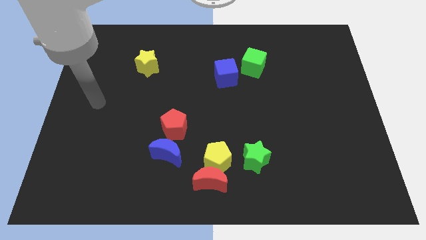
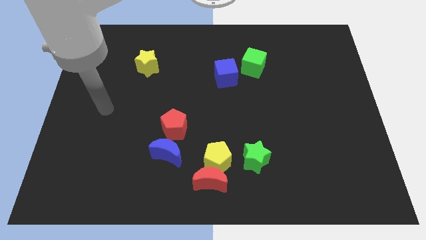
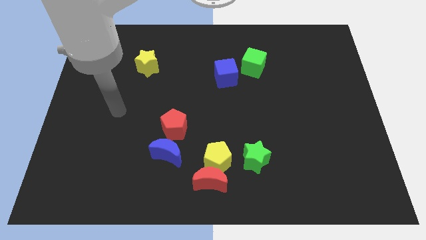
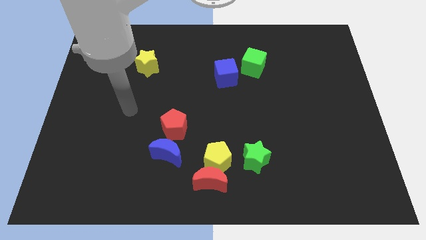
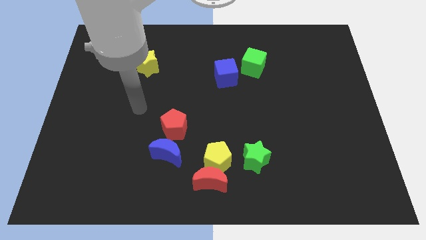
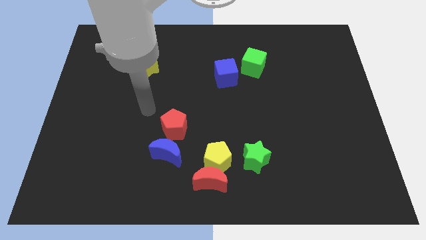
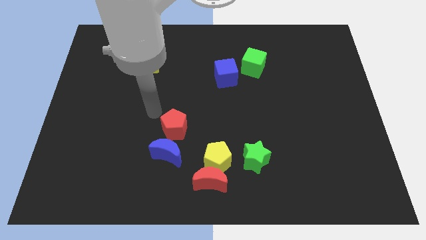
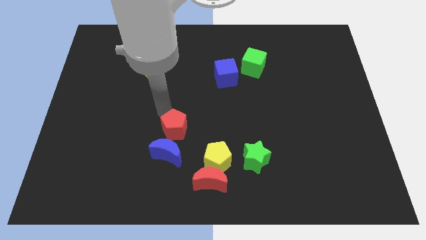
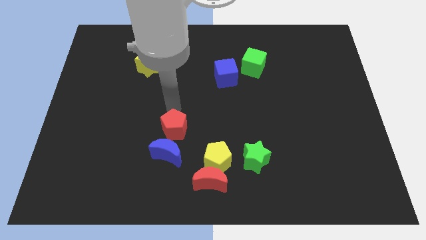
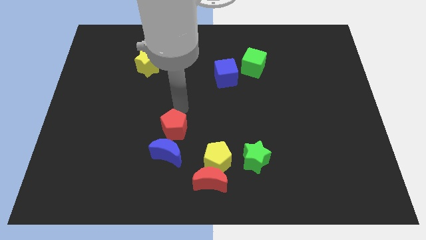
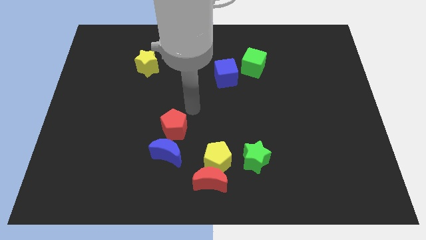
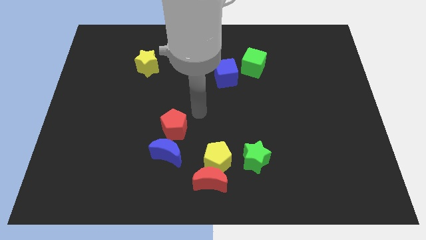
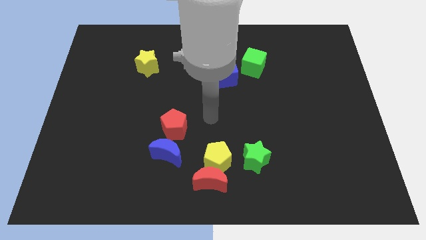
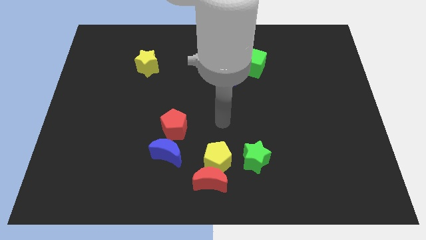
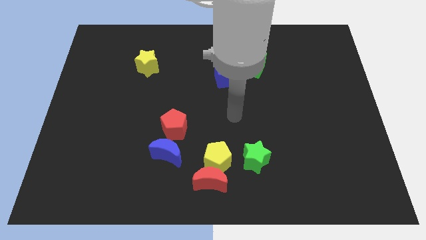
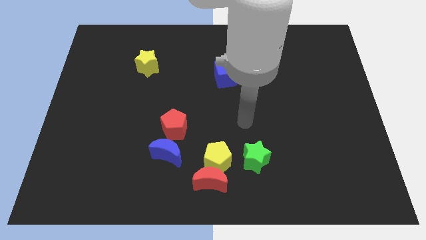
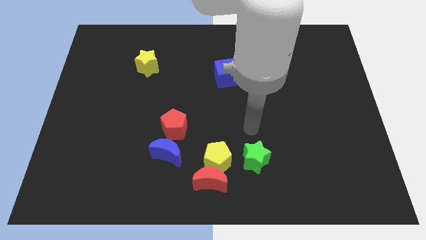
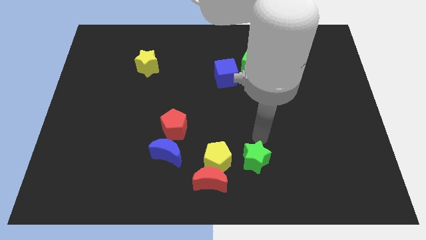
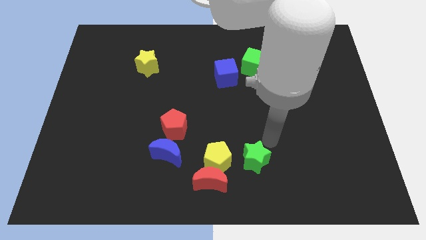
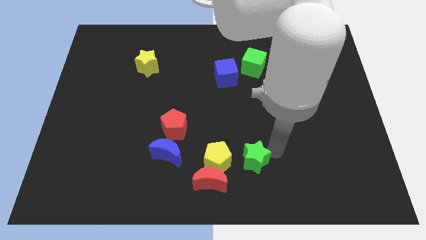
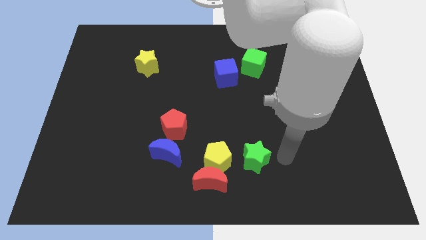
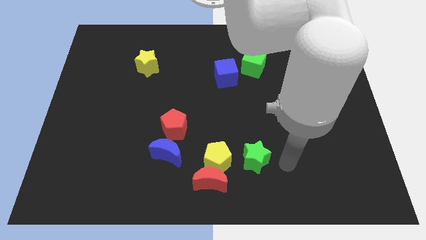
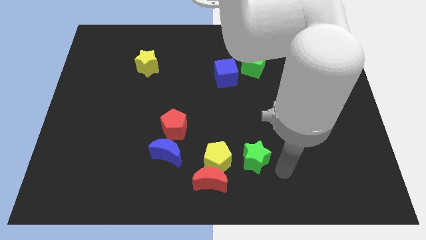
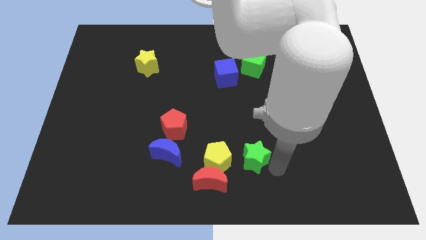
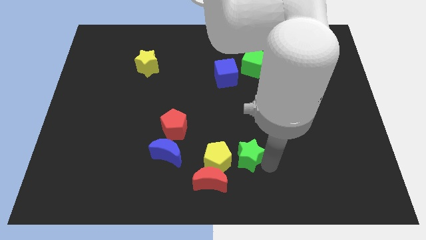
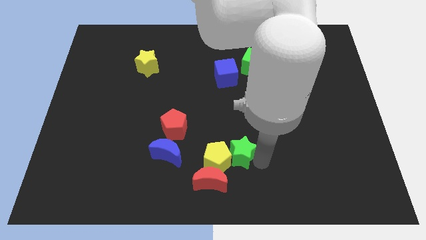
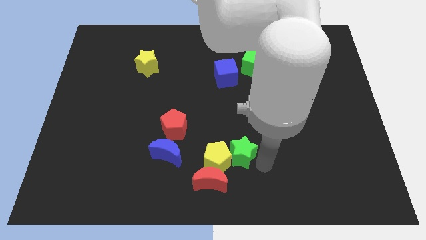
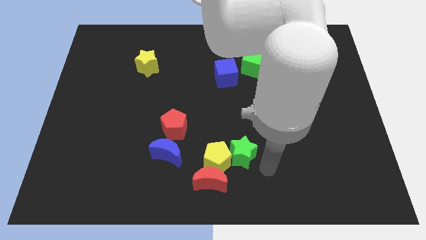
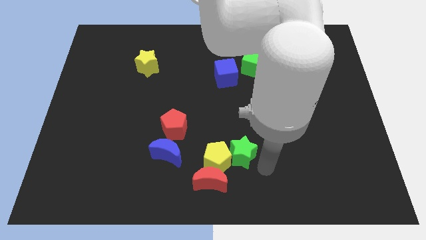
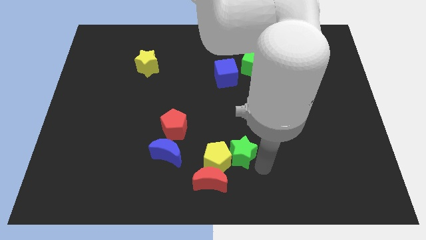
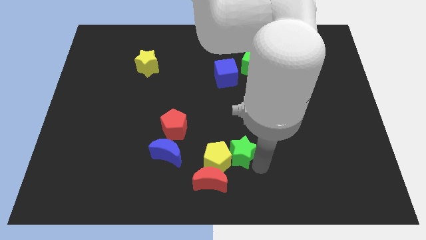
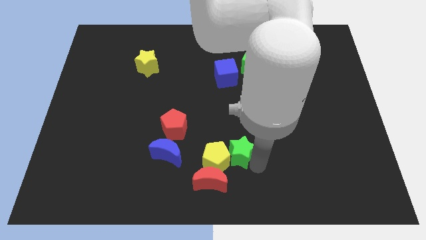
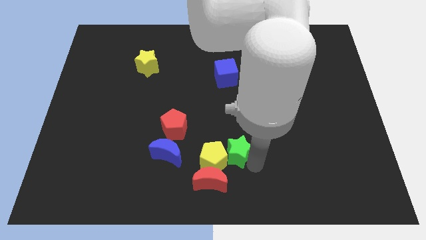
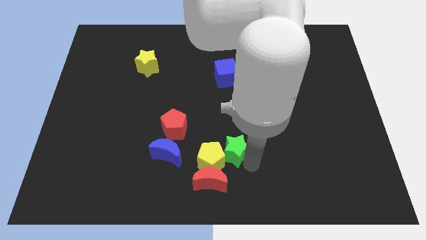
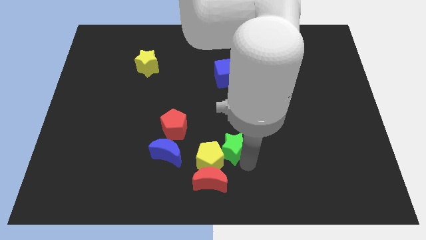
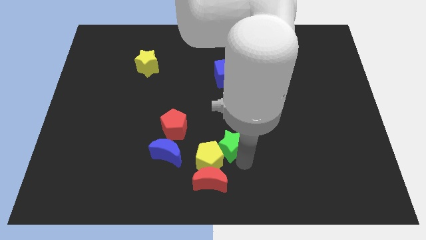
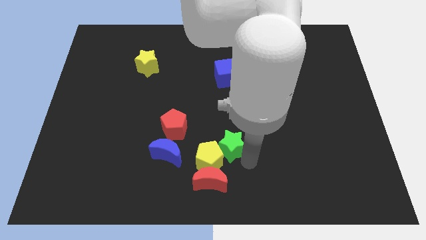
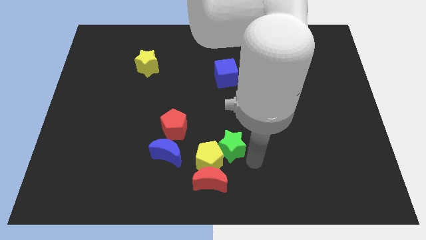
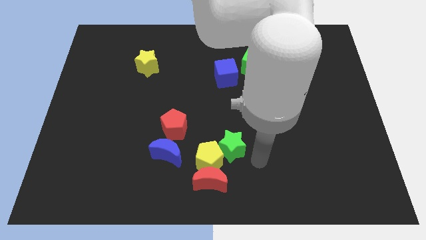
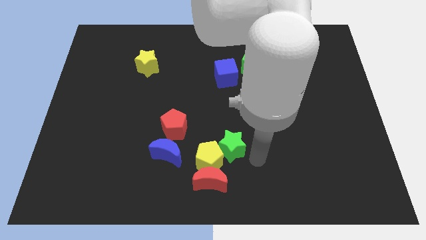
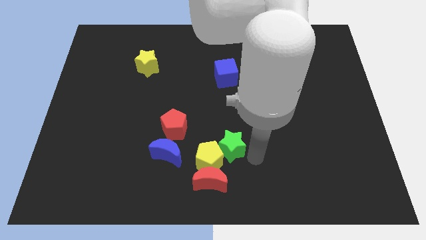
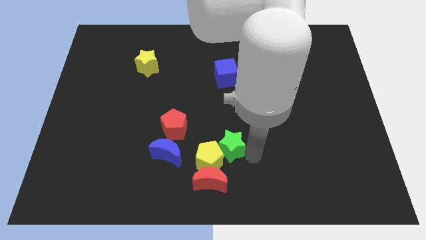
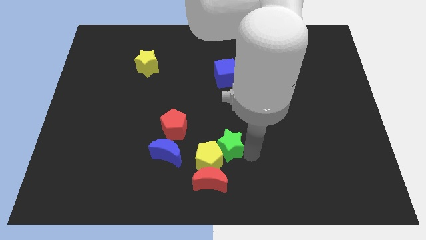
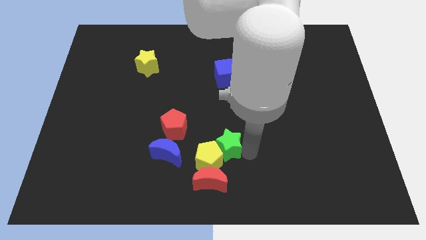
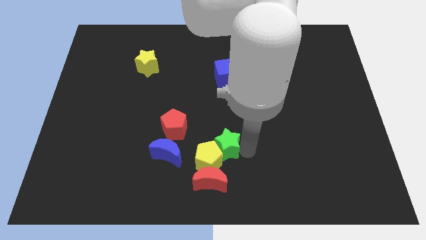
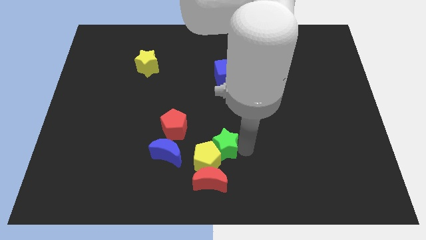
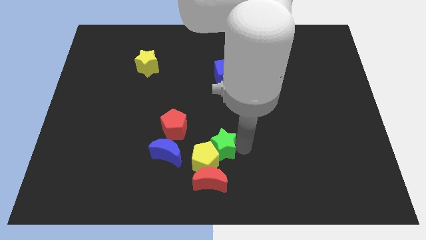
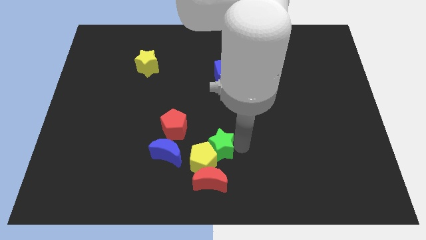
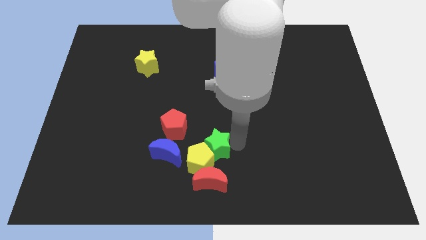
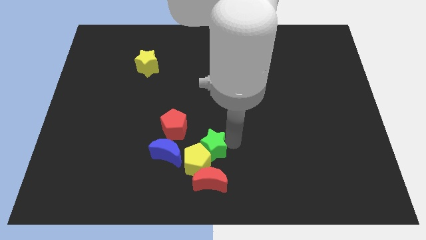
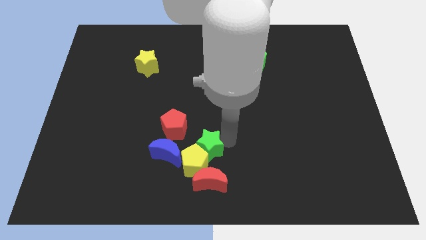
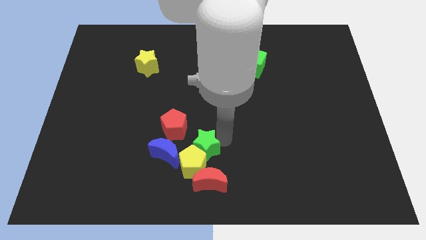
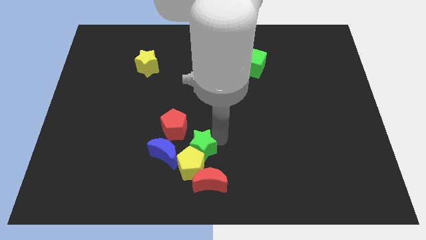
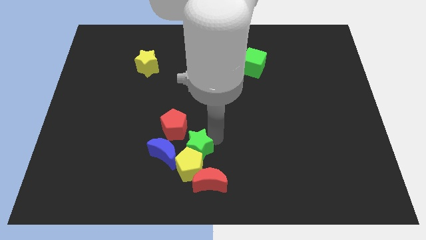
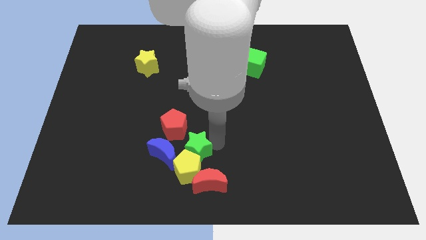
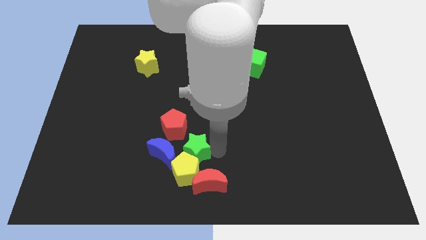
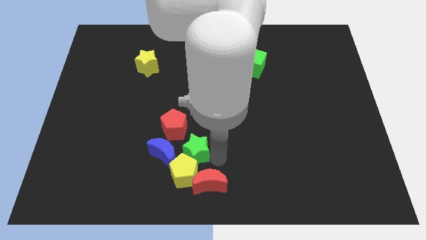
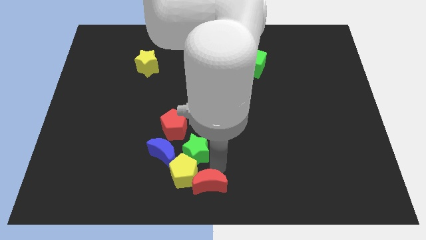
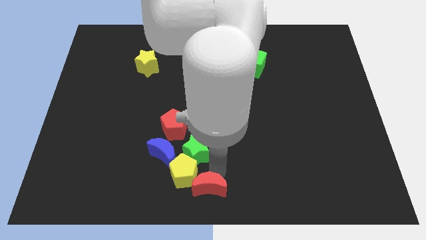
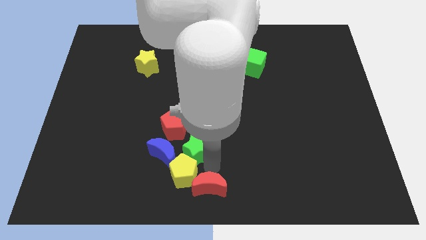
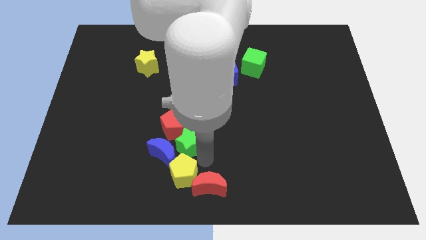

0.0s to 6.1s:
slide the green star to the red pentagon

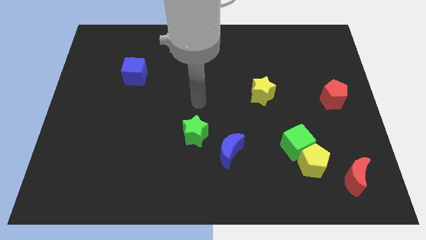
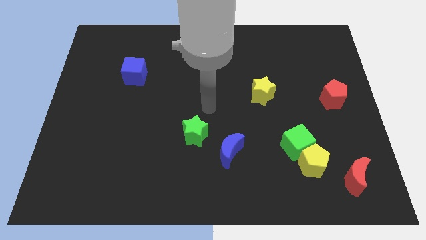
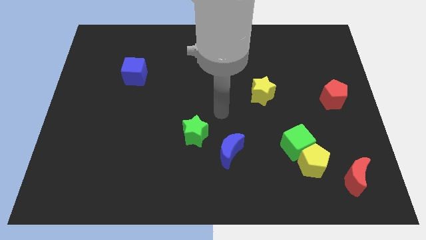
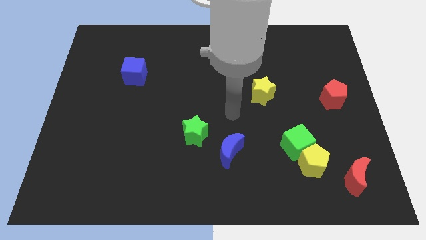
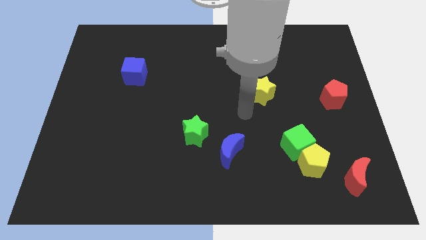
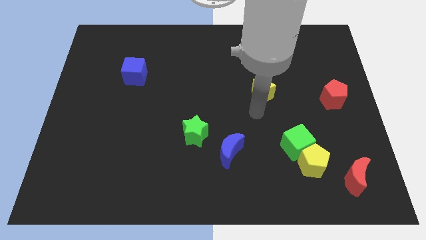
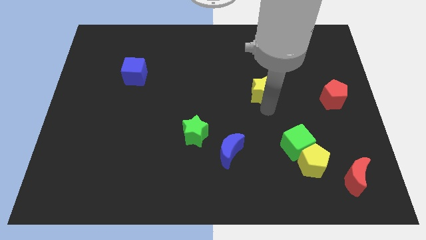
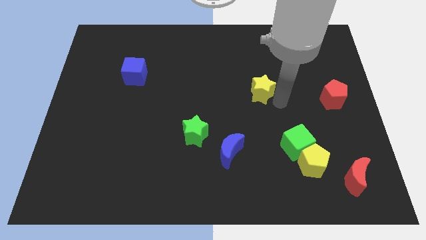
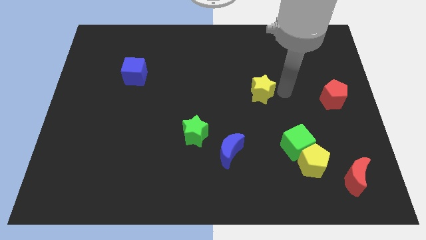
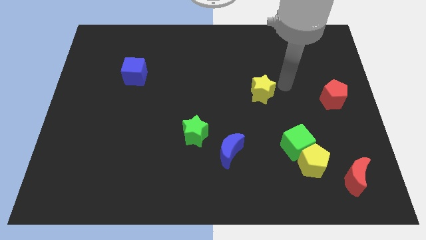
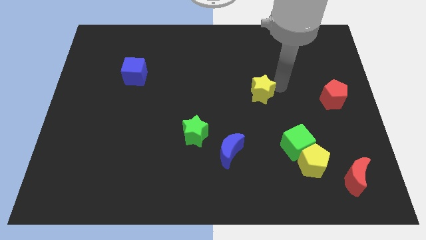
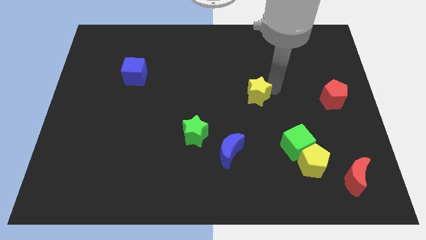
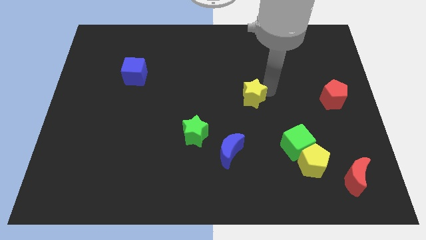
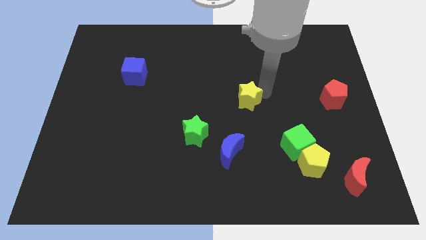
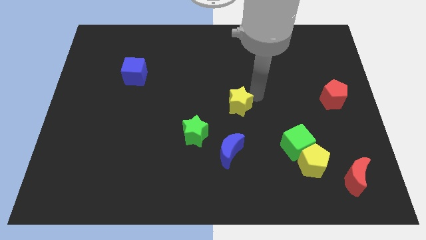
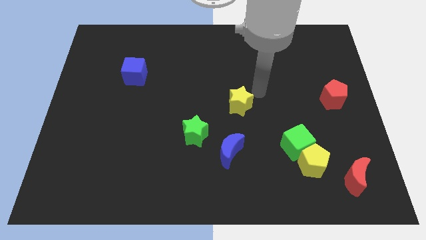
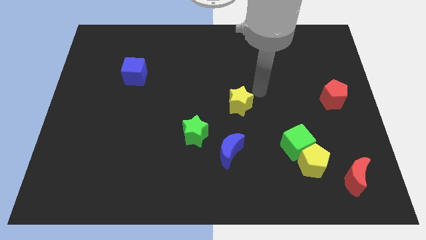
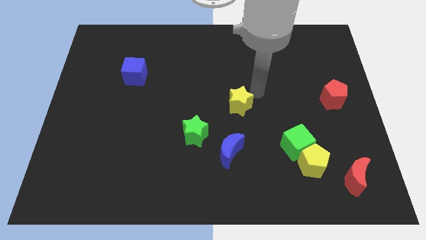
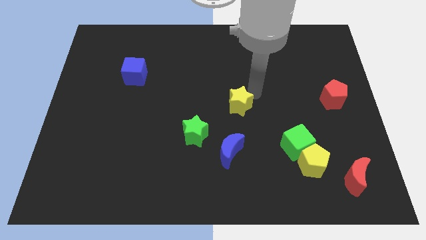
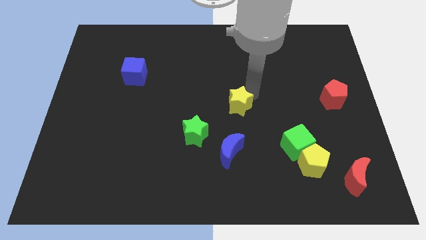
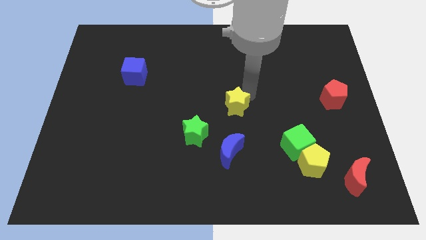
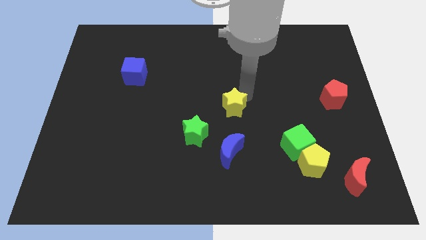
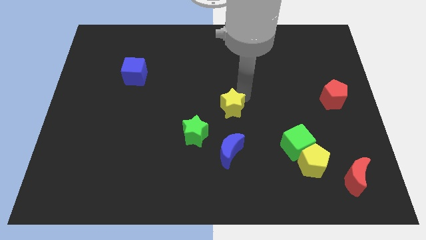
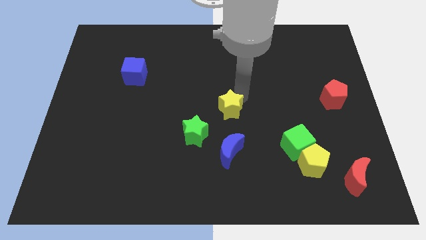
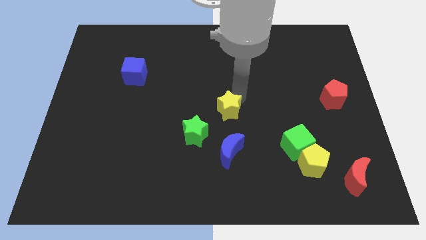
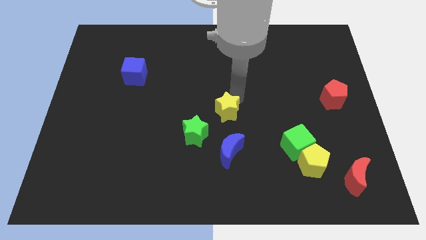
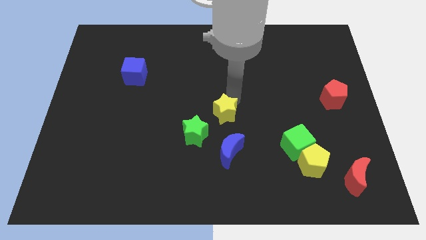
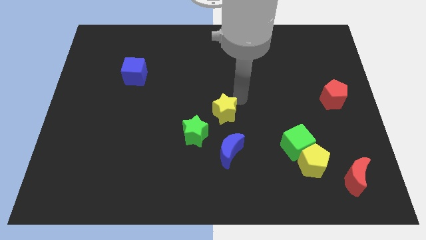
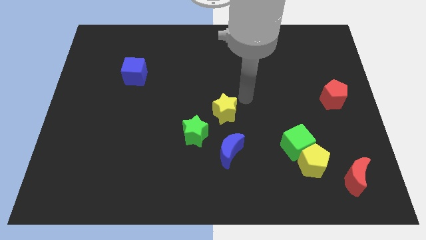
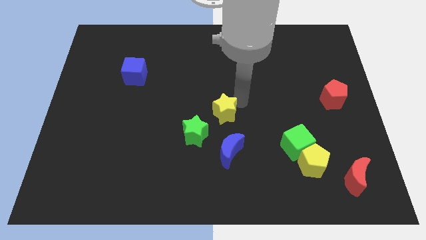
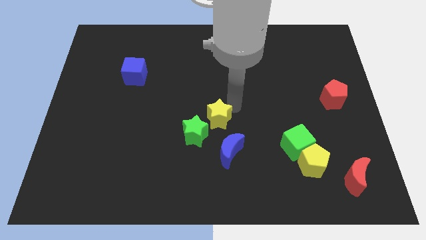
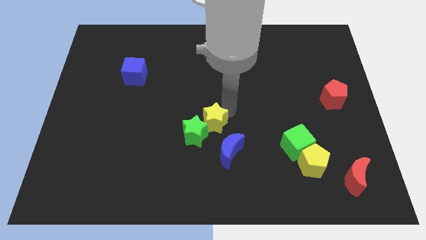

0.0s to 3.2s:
push the yellow star close to the green star
